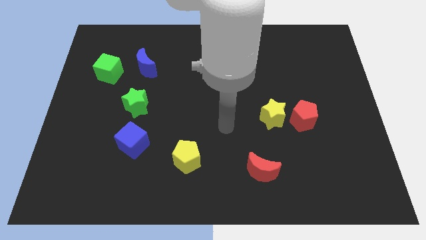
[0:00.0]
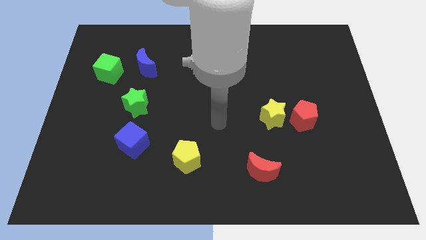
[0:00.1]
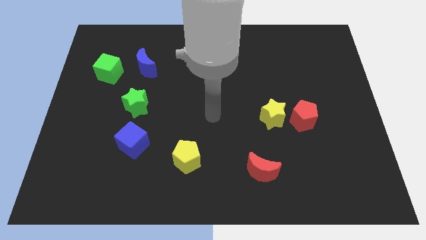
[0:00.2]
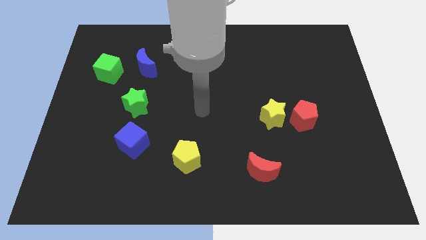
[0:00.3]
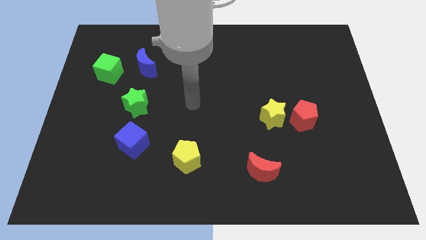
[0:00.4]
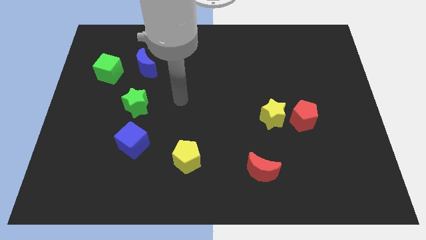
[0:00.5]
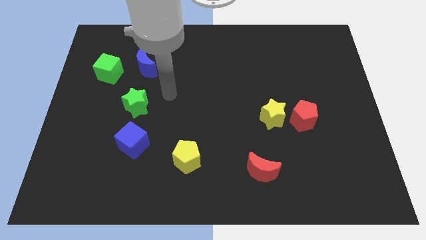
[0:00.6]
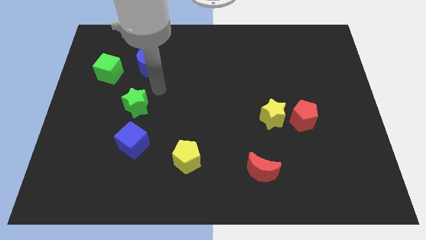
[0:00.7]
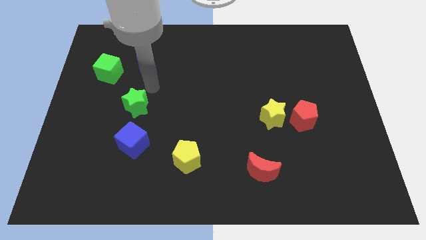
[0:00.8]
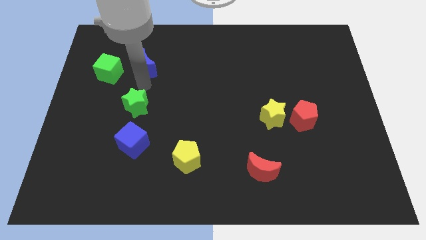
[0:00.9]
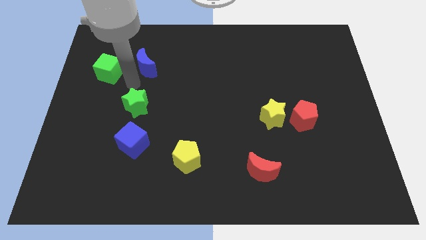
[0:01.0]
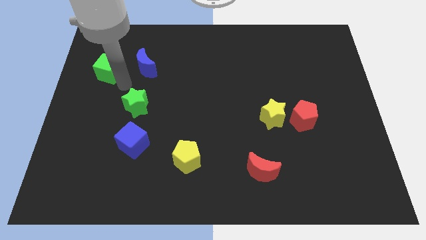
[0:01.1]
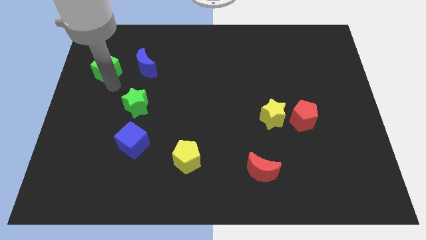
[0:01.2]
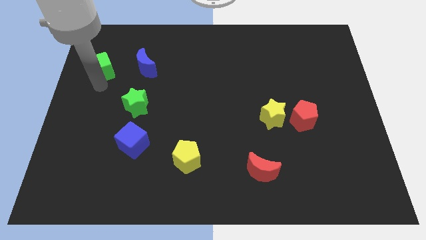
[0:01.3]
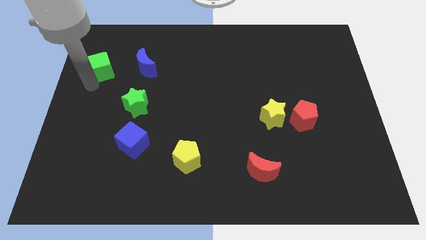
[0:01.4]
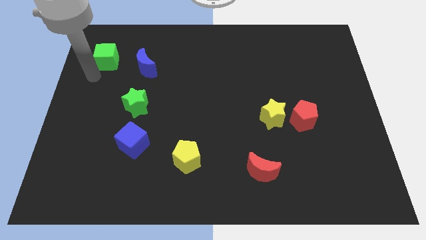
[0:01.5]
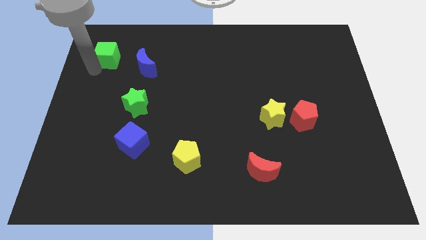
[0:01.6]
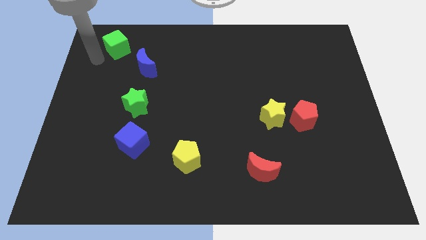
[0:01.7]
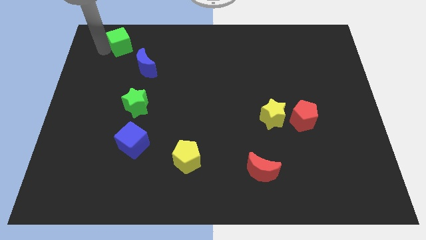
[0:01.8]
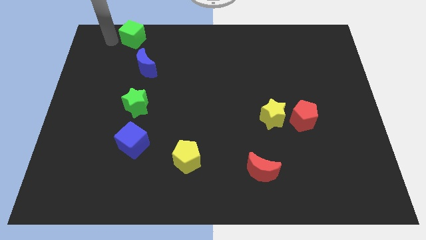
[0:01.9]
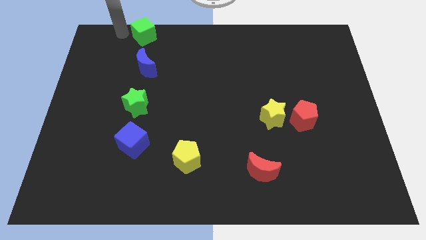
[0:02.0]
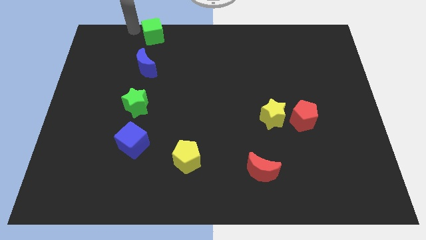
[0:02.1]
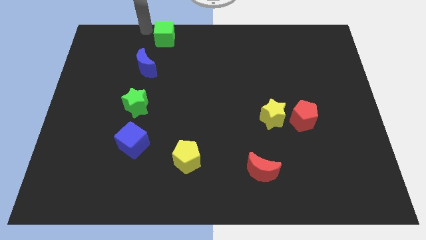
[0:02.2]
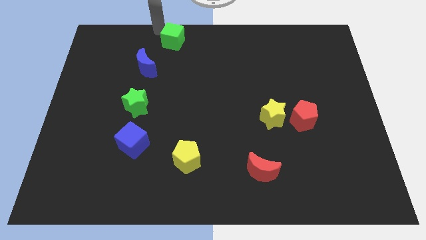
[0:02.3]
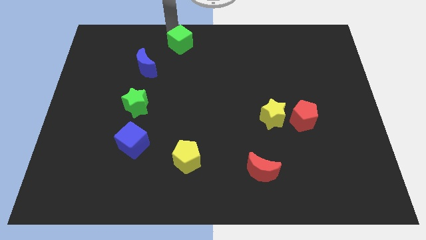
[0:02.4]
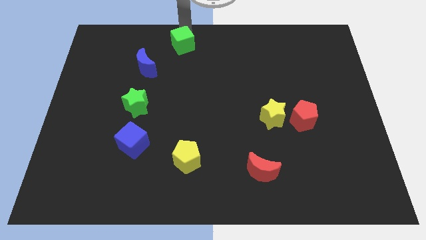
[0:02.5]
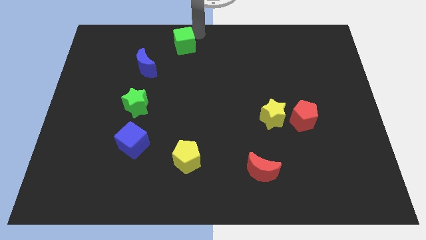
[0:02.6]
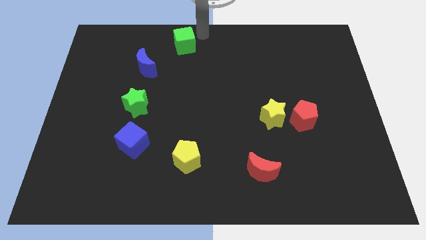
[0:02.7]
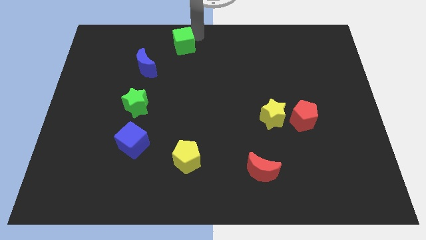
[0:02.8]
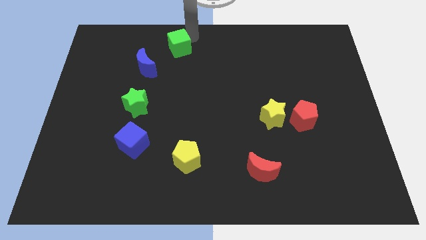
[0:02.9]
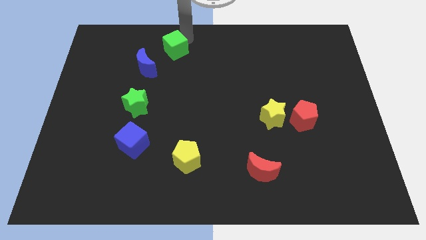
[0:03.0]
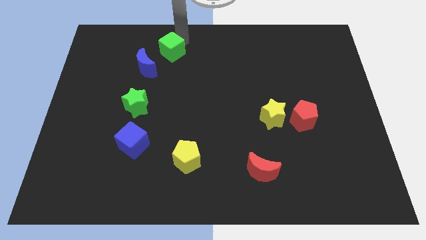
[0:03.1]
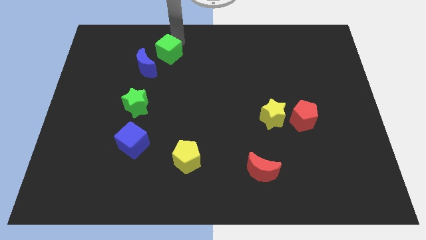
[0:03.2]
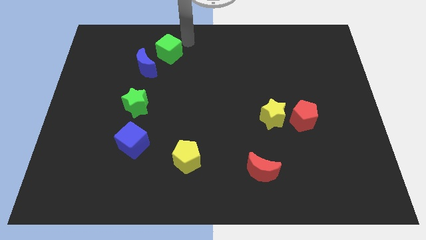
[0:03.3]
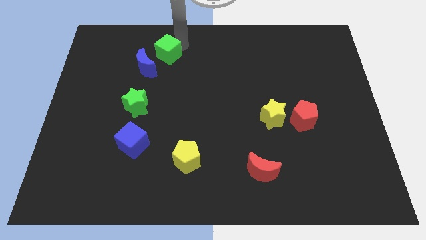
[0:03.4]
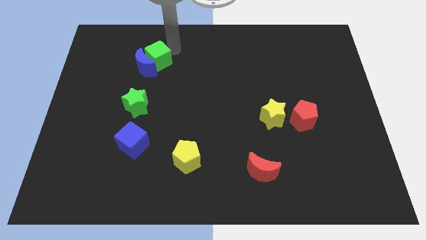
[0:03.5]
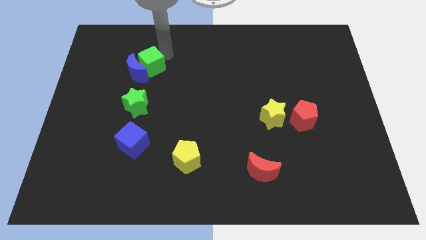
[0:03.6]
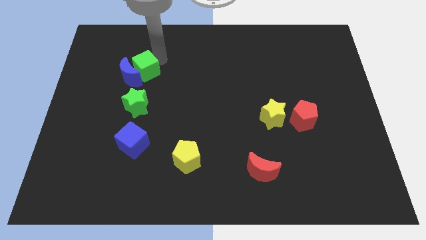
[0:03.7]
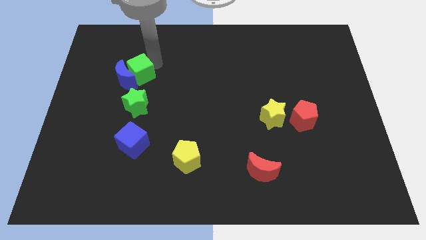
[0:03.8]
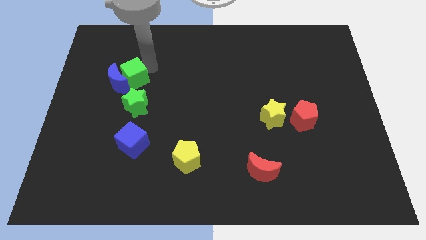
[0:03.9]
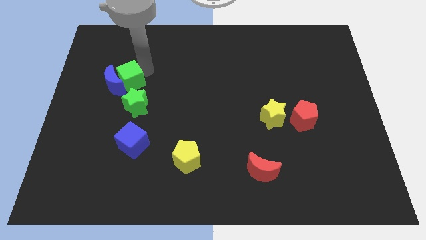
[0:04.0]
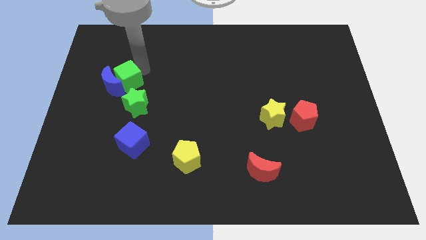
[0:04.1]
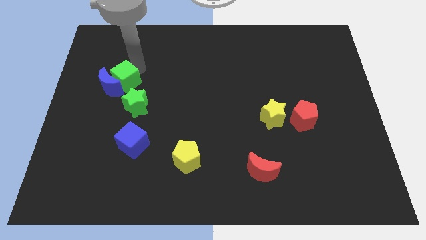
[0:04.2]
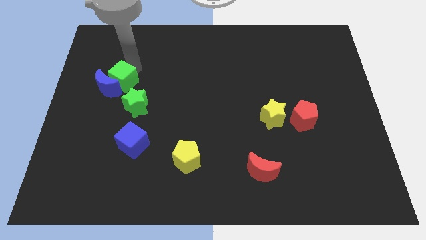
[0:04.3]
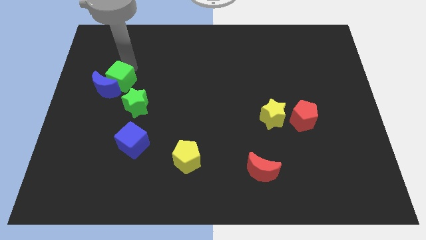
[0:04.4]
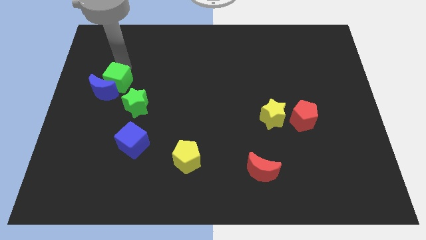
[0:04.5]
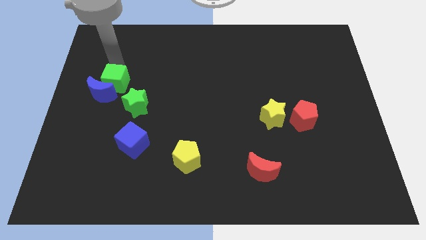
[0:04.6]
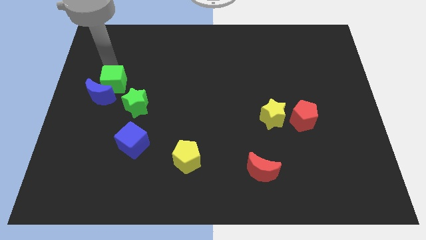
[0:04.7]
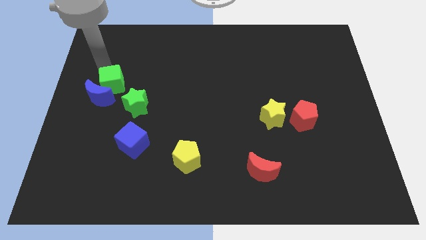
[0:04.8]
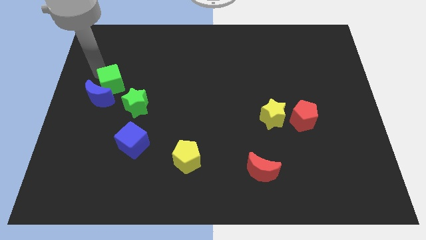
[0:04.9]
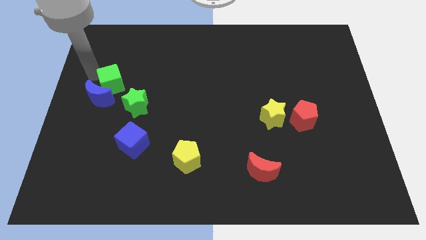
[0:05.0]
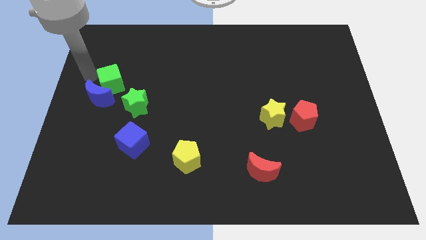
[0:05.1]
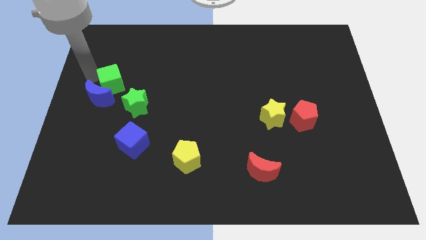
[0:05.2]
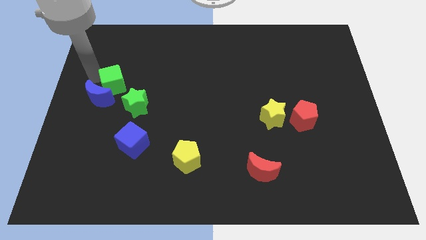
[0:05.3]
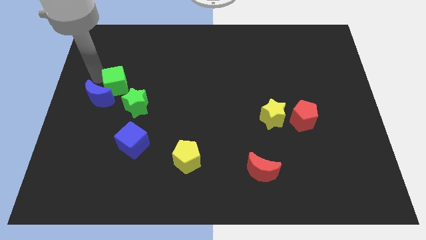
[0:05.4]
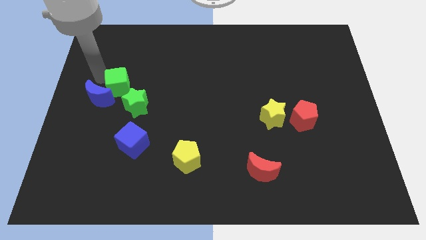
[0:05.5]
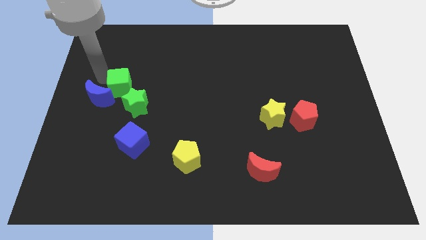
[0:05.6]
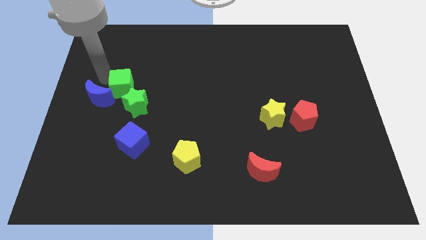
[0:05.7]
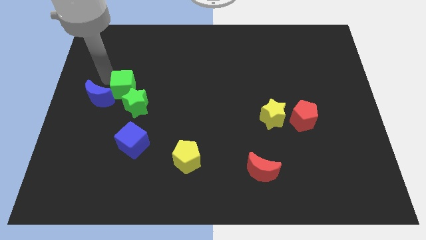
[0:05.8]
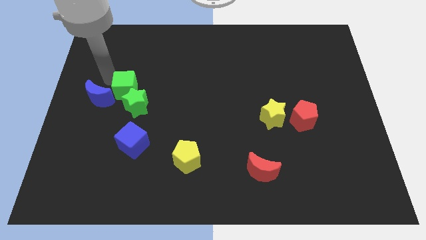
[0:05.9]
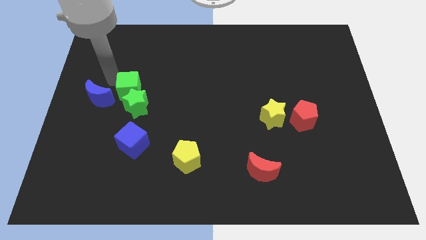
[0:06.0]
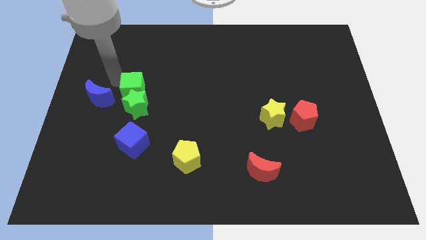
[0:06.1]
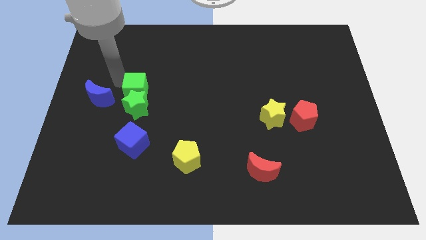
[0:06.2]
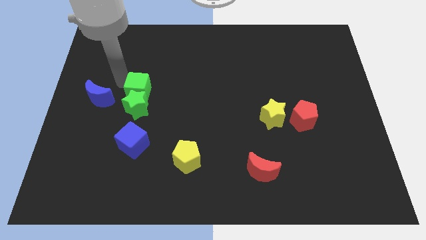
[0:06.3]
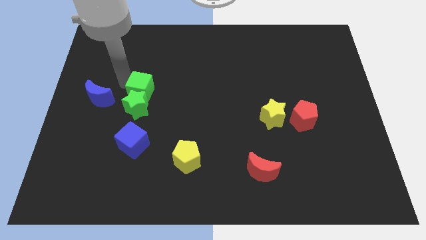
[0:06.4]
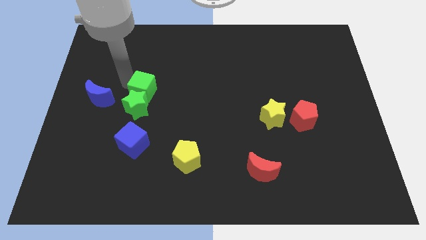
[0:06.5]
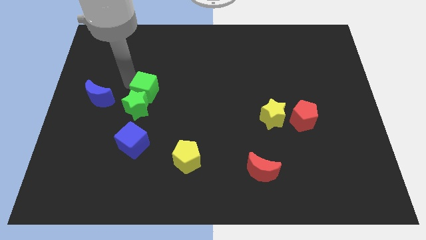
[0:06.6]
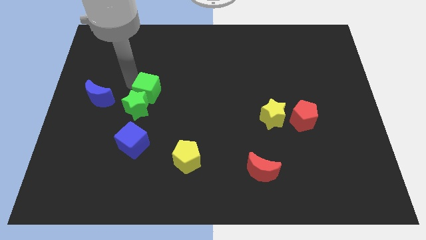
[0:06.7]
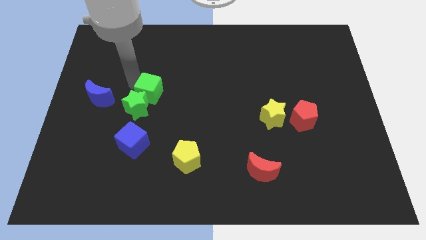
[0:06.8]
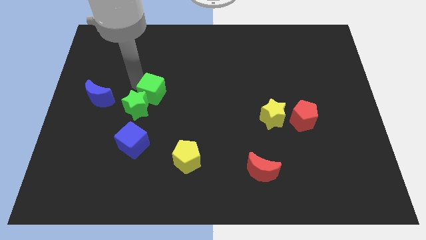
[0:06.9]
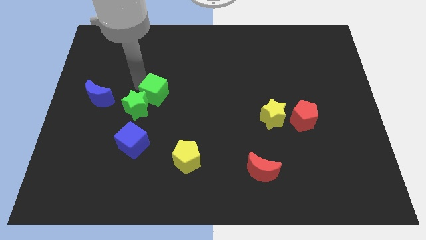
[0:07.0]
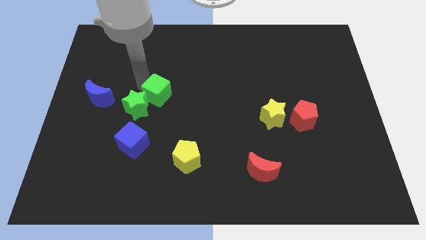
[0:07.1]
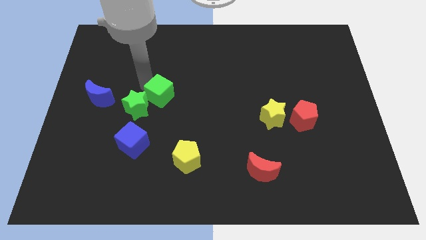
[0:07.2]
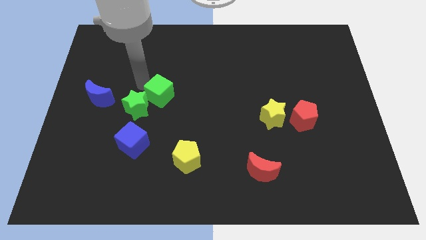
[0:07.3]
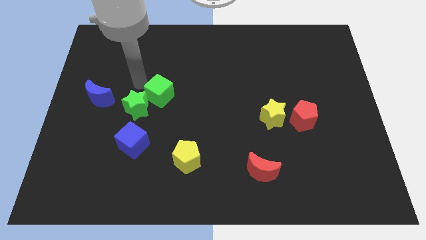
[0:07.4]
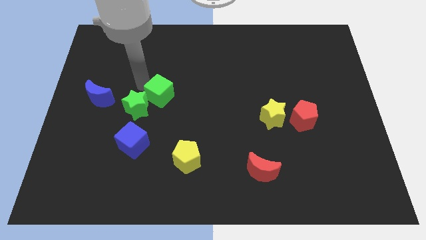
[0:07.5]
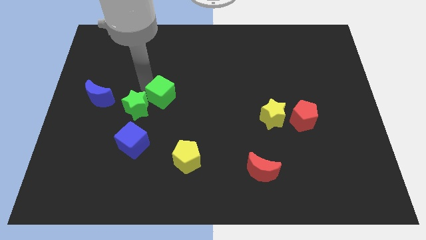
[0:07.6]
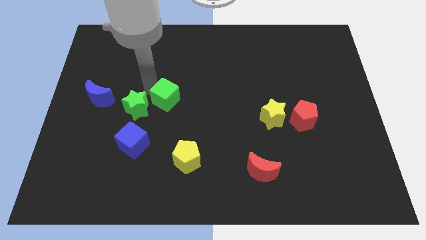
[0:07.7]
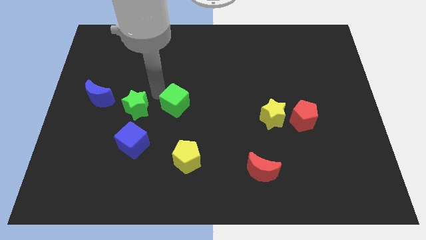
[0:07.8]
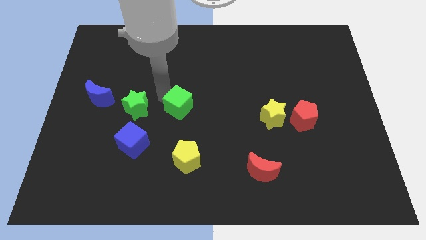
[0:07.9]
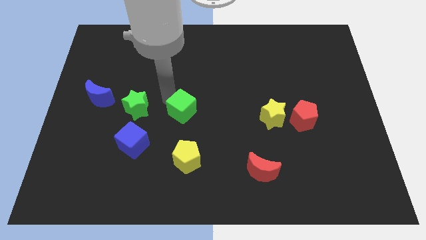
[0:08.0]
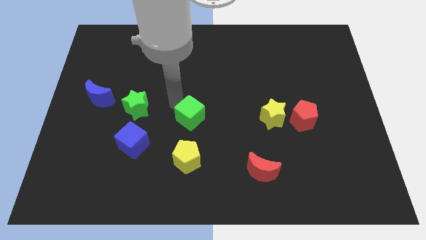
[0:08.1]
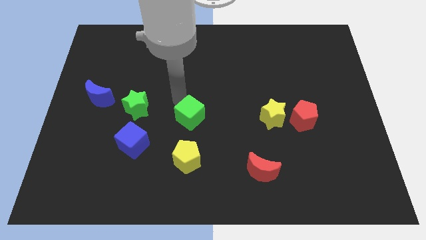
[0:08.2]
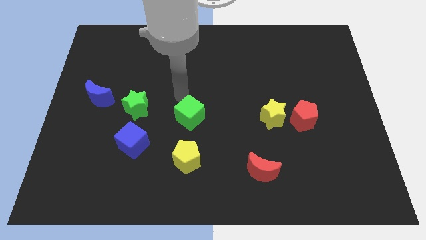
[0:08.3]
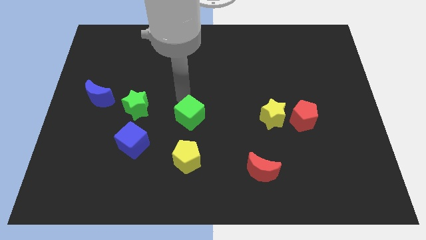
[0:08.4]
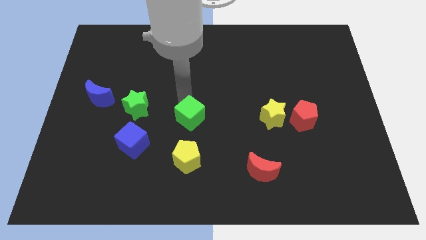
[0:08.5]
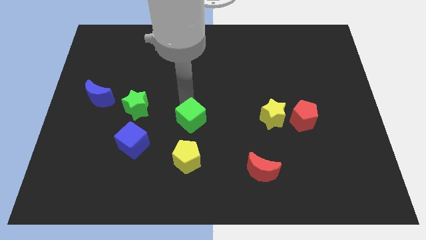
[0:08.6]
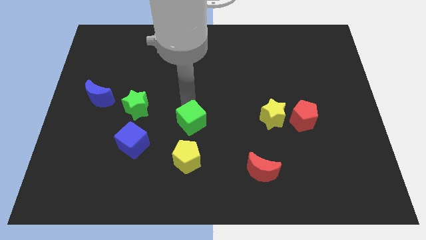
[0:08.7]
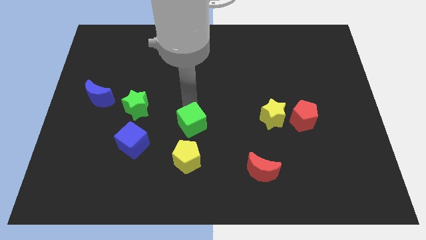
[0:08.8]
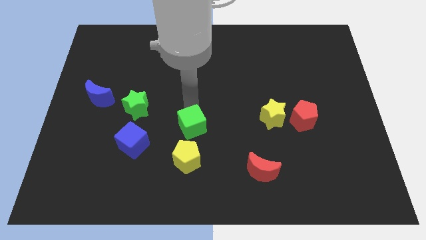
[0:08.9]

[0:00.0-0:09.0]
put the green cube just right of the blue cube
